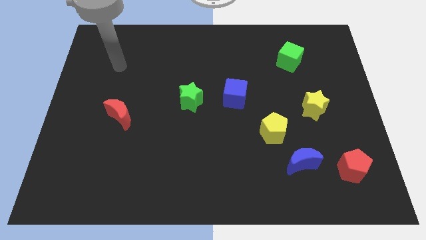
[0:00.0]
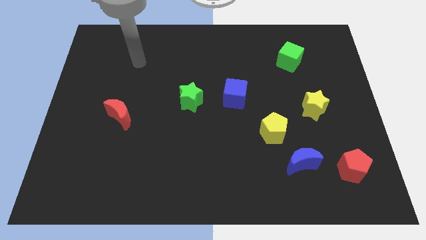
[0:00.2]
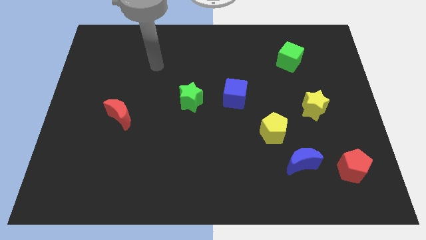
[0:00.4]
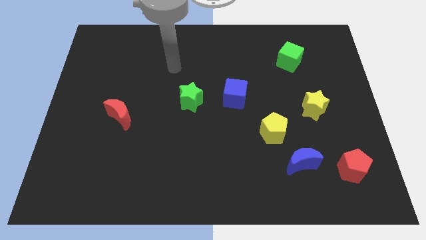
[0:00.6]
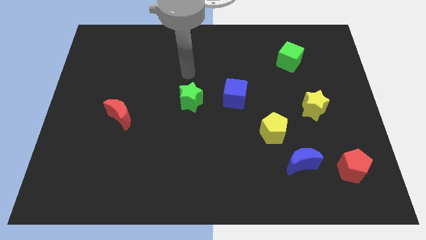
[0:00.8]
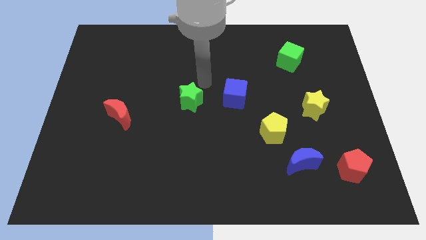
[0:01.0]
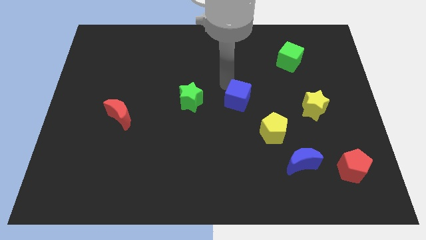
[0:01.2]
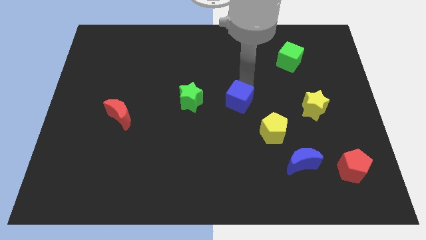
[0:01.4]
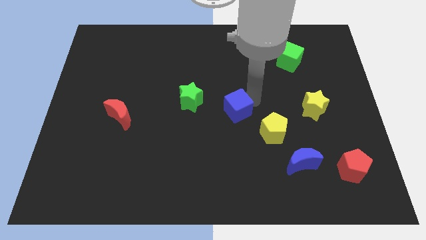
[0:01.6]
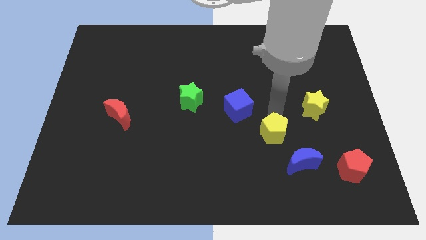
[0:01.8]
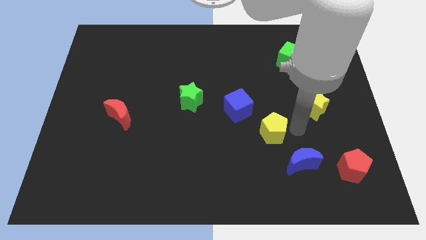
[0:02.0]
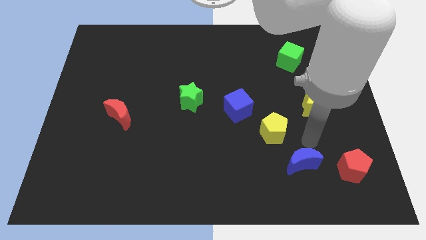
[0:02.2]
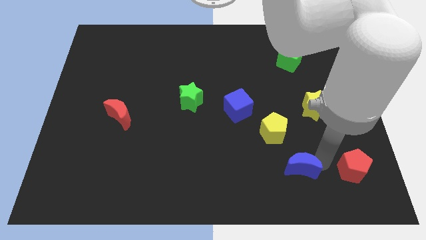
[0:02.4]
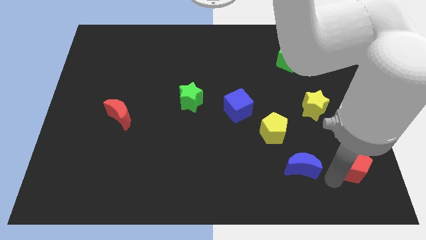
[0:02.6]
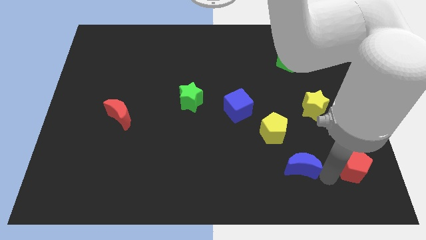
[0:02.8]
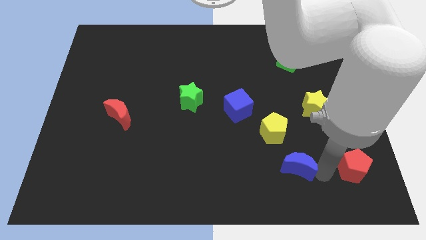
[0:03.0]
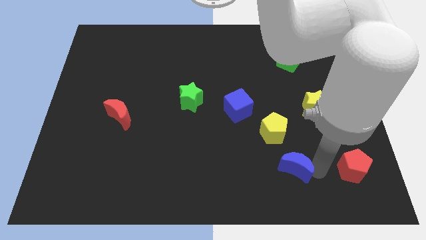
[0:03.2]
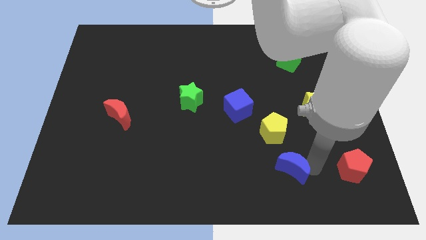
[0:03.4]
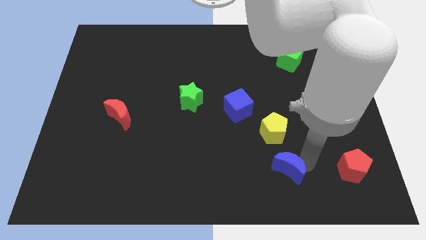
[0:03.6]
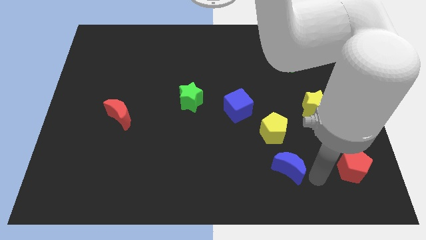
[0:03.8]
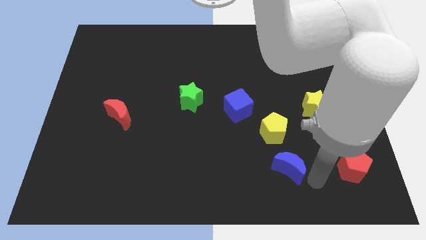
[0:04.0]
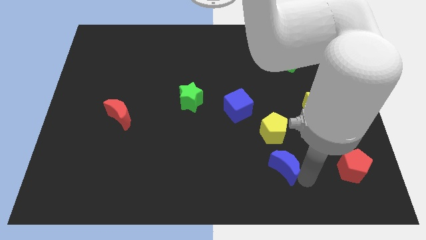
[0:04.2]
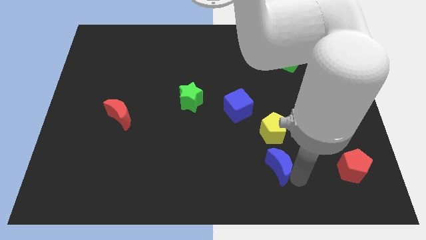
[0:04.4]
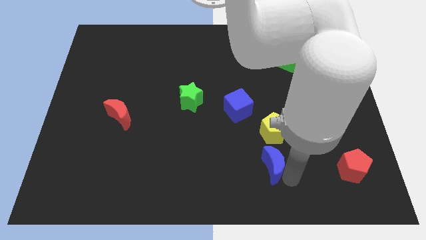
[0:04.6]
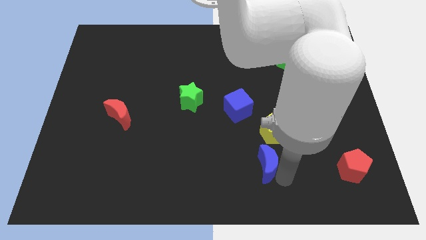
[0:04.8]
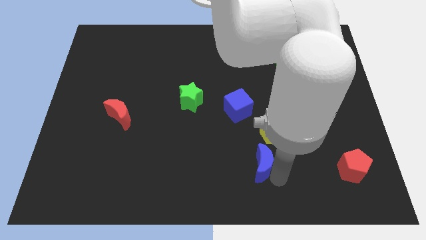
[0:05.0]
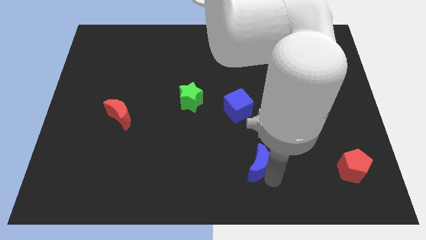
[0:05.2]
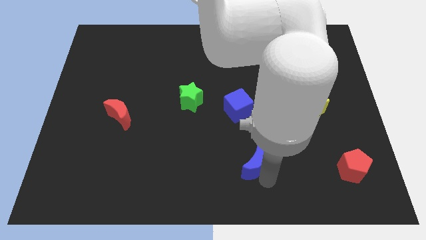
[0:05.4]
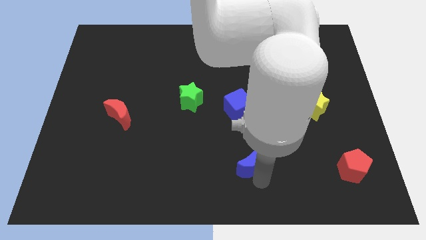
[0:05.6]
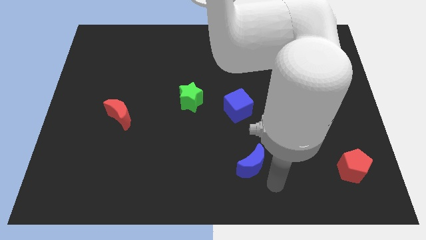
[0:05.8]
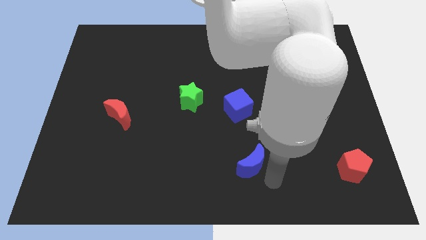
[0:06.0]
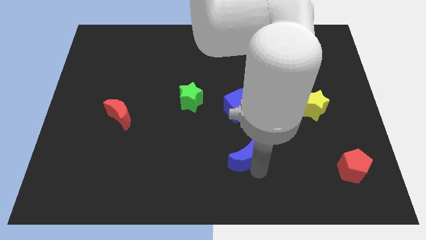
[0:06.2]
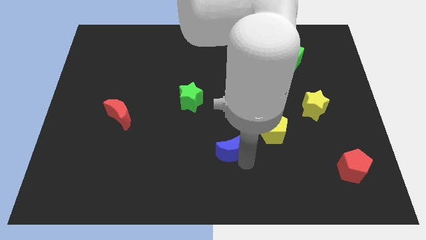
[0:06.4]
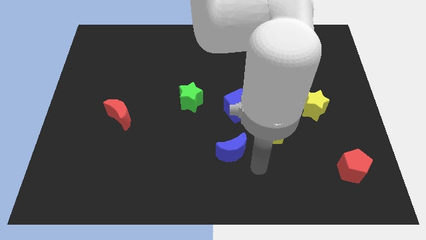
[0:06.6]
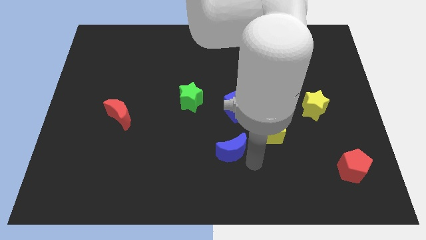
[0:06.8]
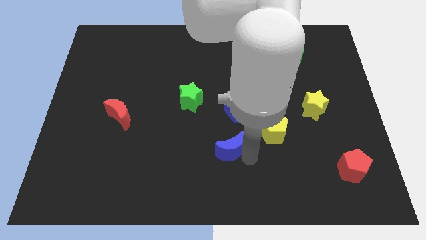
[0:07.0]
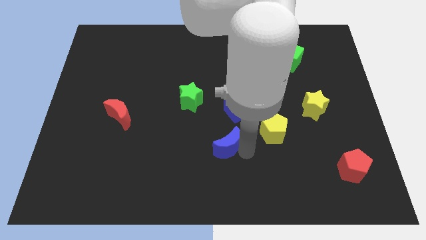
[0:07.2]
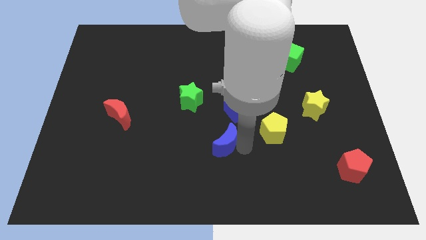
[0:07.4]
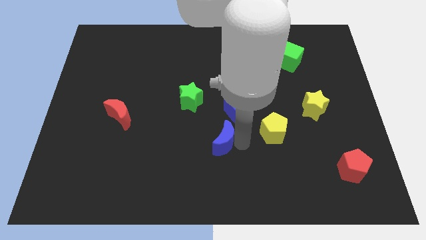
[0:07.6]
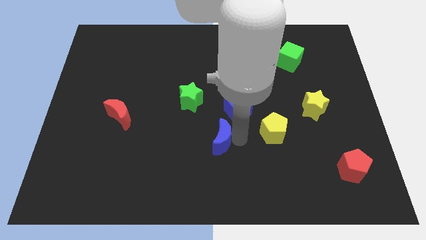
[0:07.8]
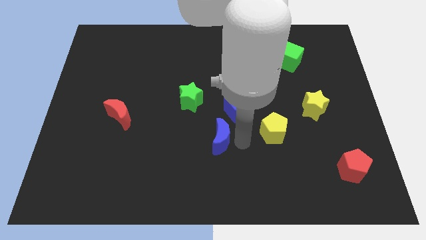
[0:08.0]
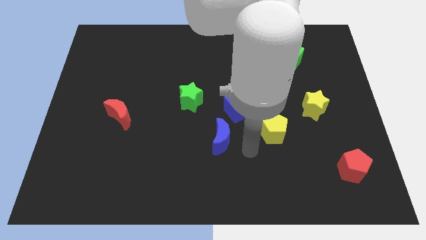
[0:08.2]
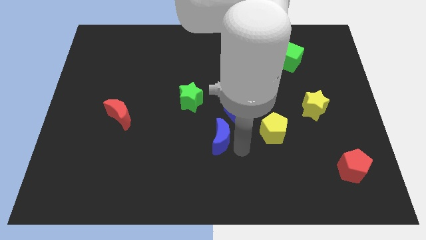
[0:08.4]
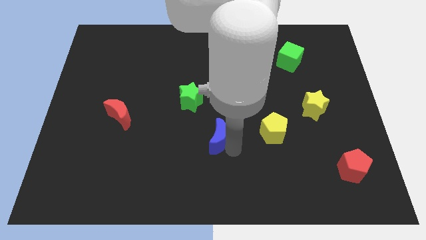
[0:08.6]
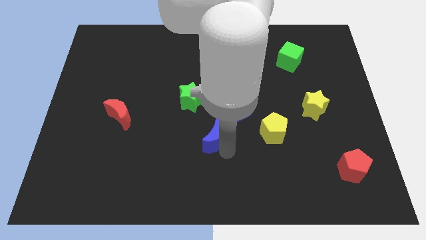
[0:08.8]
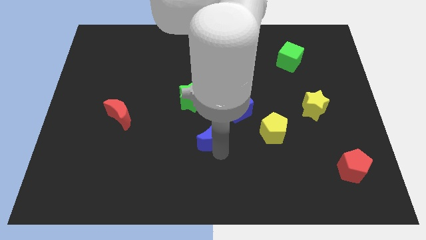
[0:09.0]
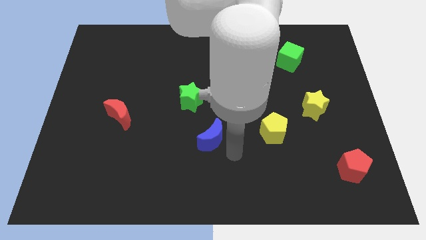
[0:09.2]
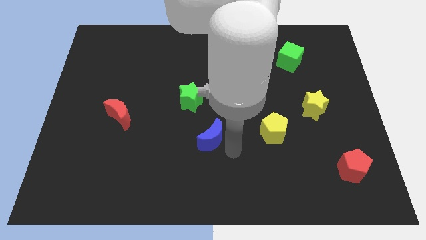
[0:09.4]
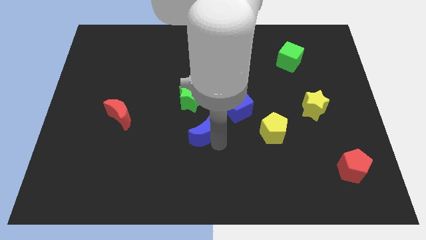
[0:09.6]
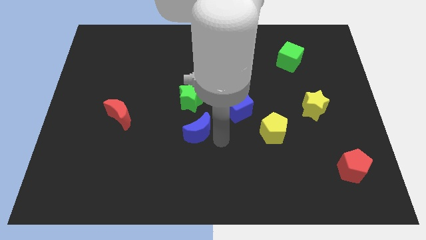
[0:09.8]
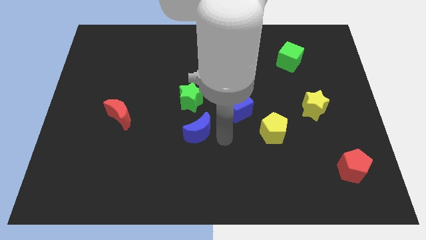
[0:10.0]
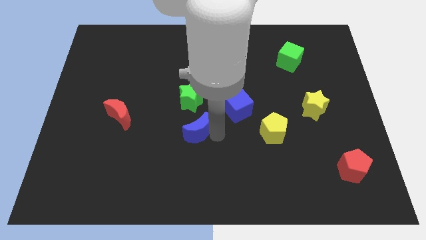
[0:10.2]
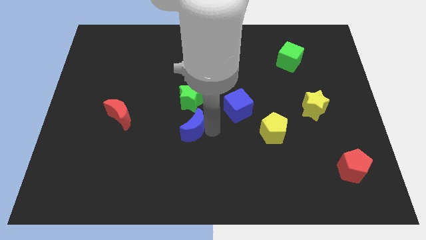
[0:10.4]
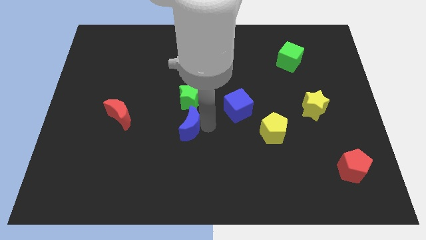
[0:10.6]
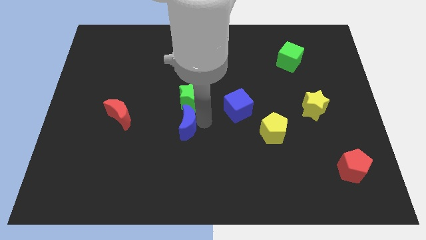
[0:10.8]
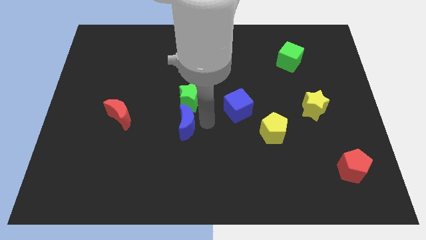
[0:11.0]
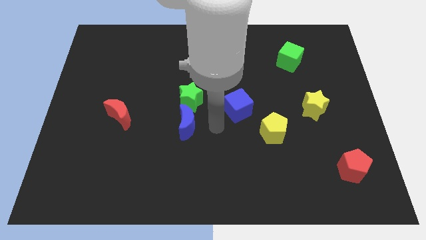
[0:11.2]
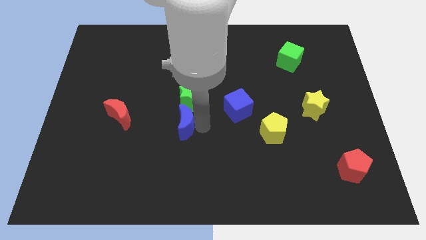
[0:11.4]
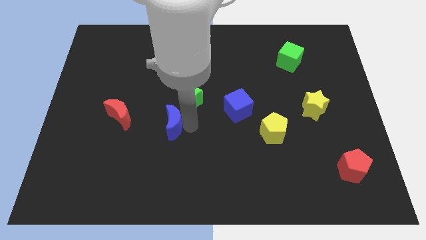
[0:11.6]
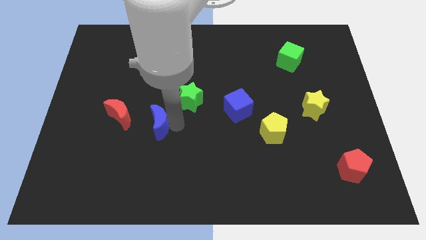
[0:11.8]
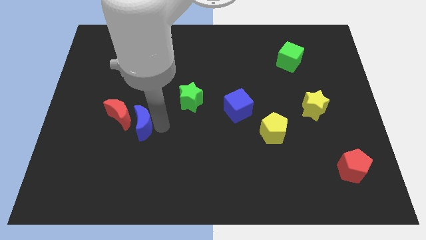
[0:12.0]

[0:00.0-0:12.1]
slide the blue moon next to the red moon
